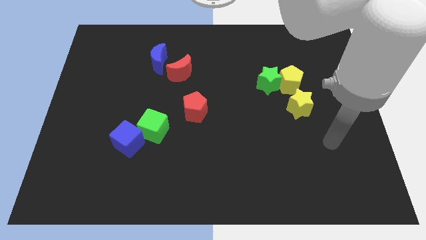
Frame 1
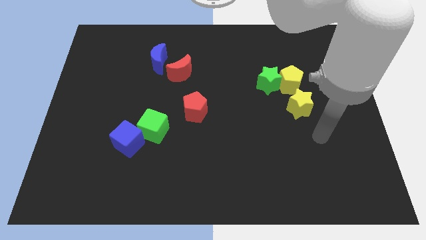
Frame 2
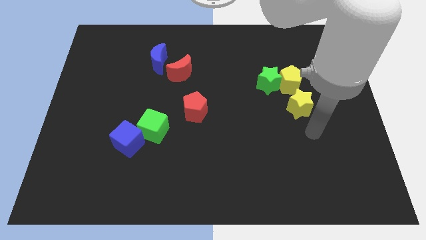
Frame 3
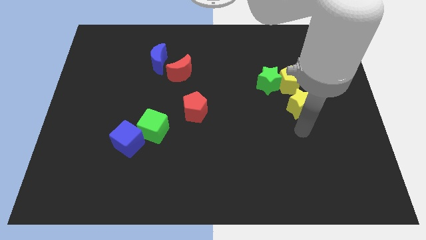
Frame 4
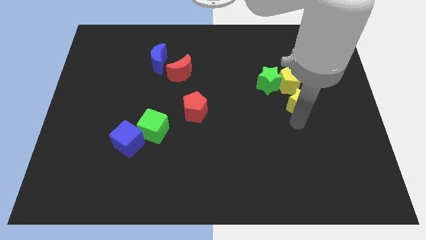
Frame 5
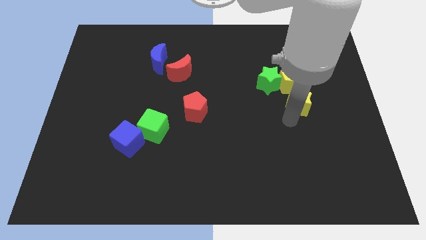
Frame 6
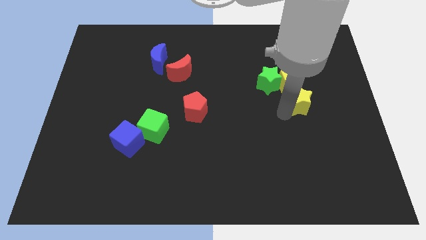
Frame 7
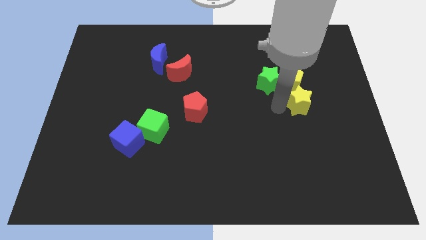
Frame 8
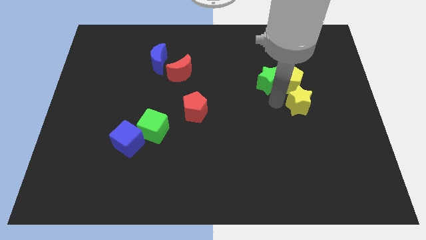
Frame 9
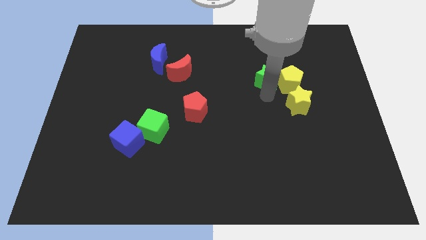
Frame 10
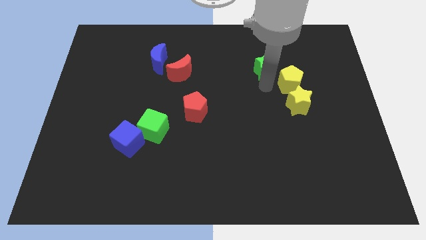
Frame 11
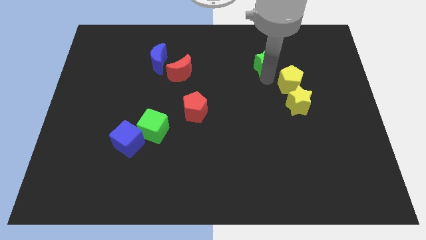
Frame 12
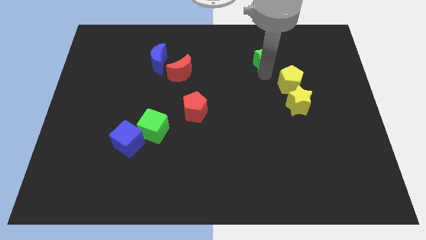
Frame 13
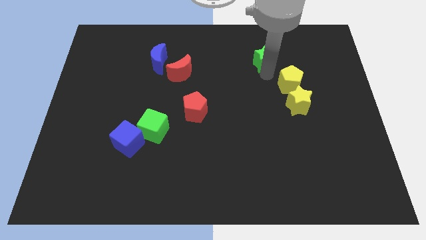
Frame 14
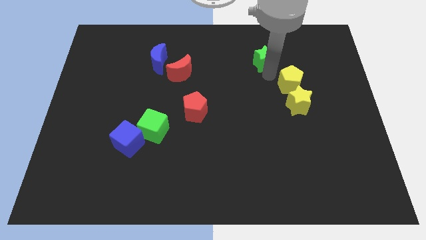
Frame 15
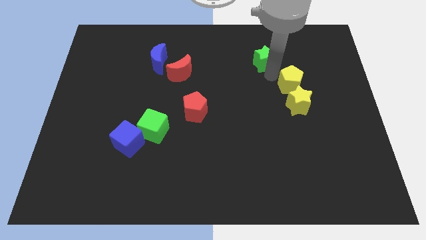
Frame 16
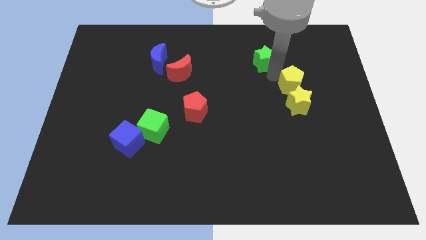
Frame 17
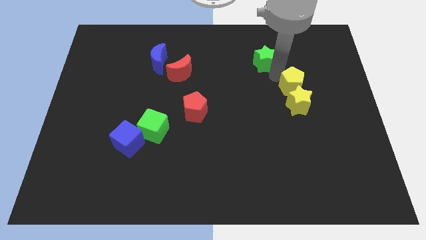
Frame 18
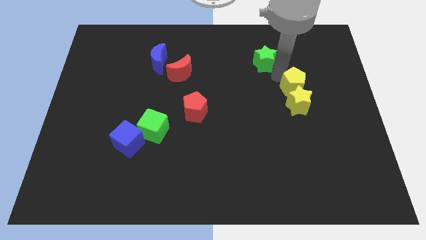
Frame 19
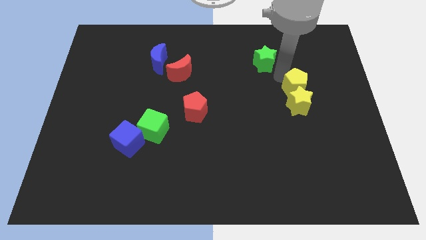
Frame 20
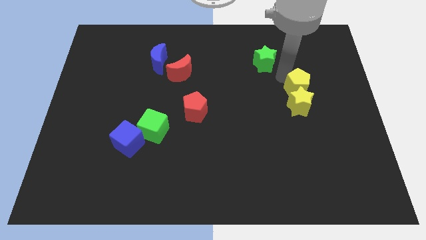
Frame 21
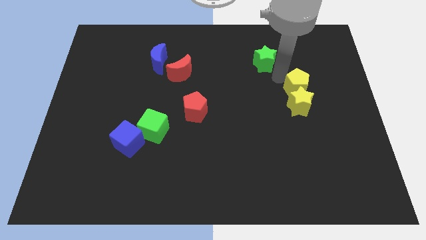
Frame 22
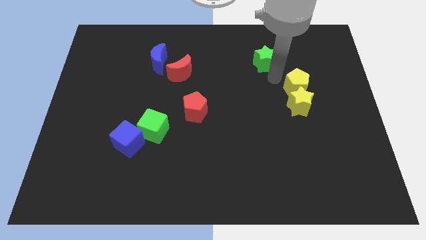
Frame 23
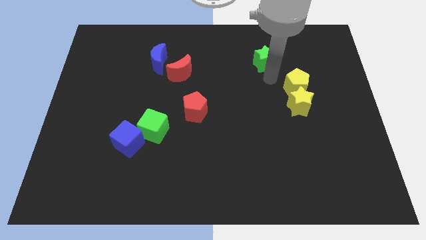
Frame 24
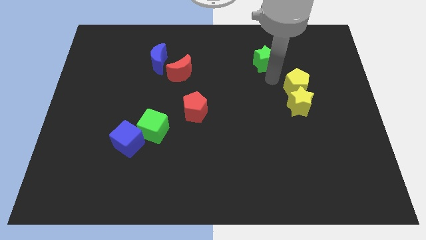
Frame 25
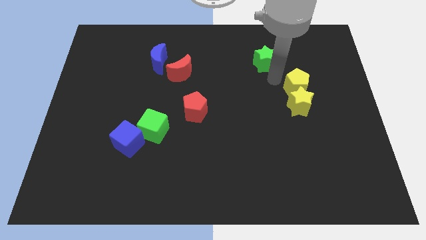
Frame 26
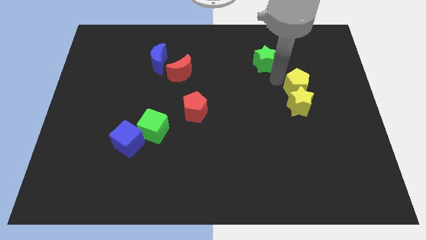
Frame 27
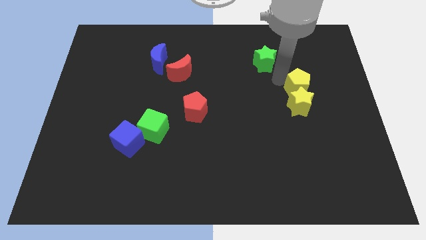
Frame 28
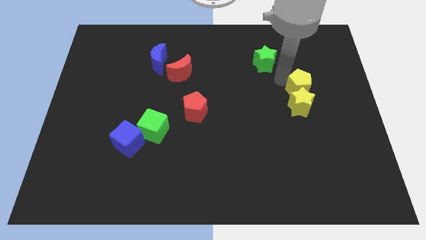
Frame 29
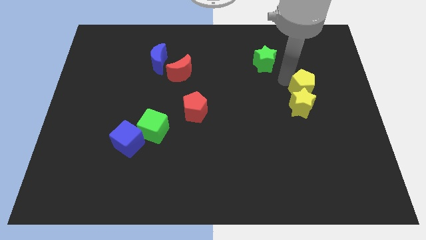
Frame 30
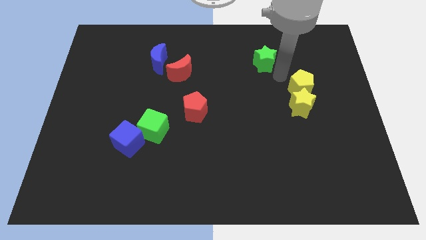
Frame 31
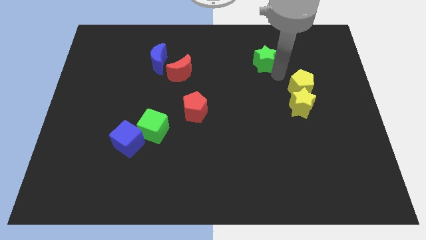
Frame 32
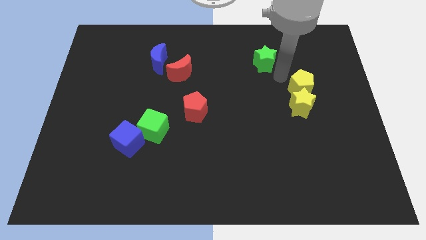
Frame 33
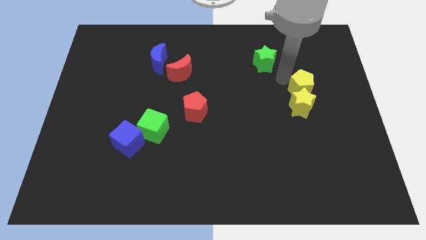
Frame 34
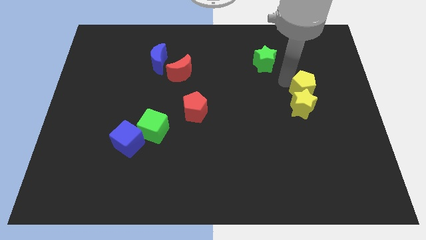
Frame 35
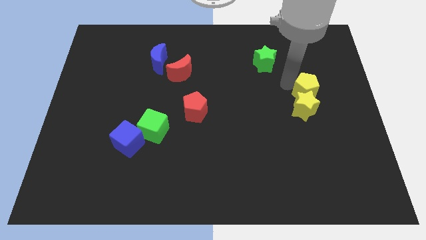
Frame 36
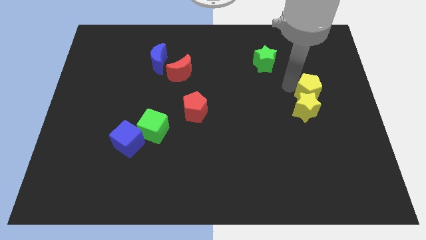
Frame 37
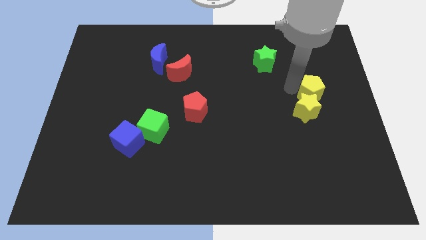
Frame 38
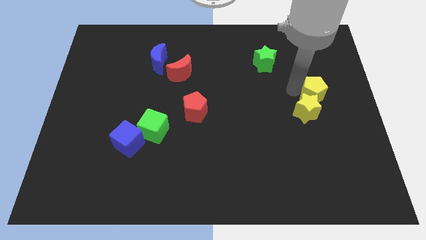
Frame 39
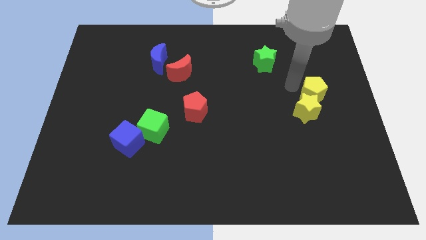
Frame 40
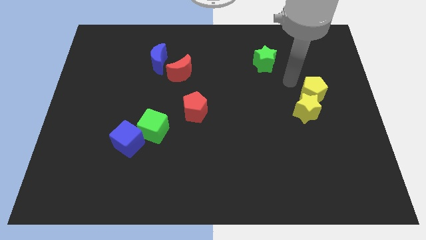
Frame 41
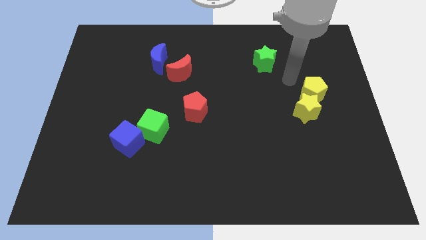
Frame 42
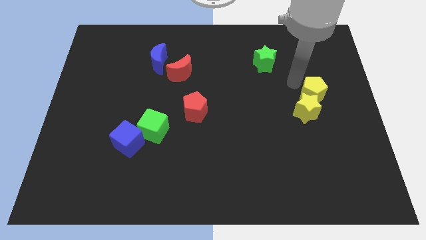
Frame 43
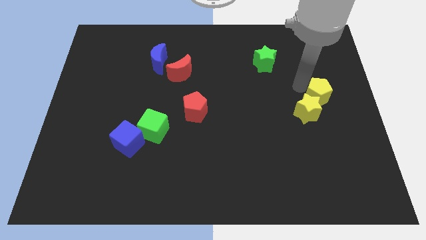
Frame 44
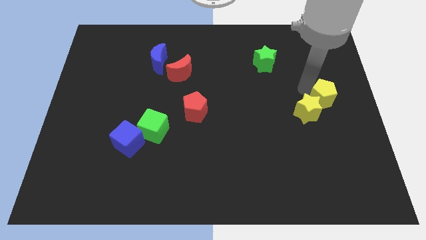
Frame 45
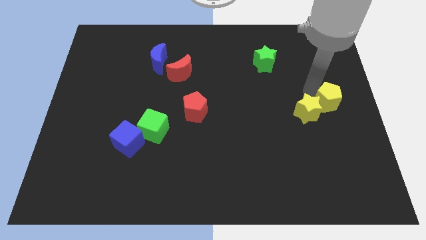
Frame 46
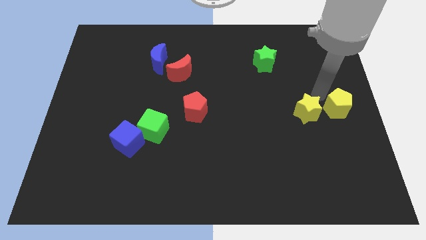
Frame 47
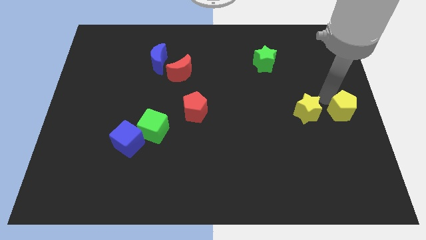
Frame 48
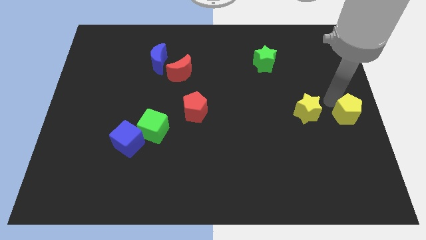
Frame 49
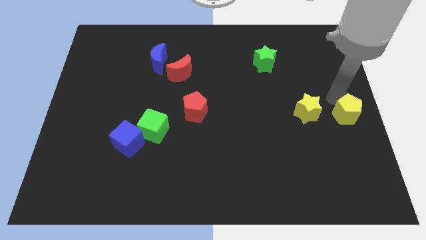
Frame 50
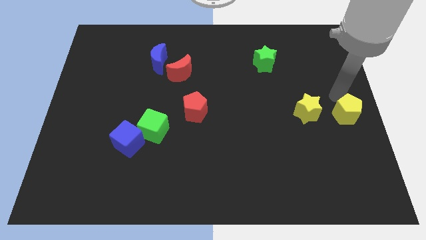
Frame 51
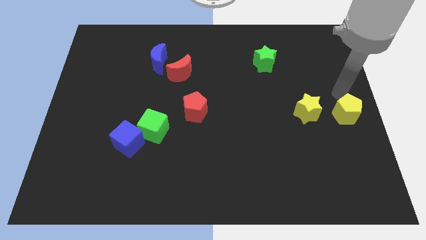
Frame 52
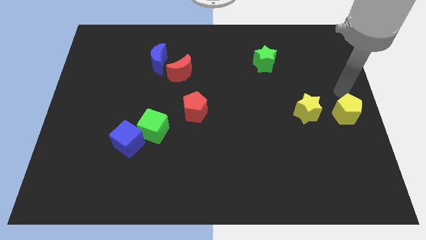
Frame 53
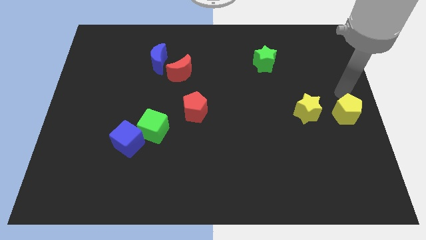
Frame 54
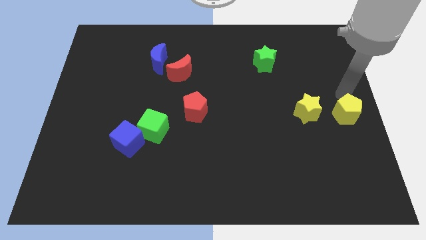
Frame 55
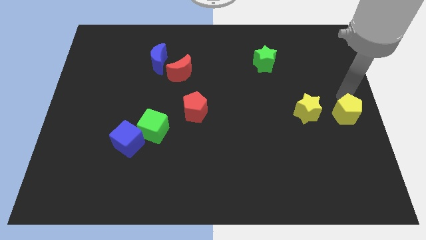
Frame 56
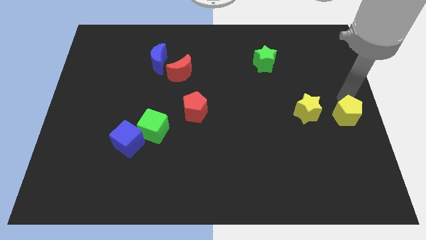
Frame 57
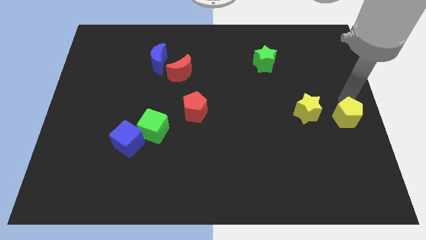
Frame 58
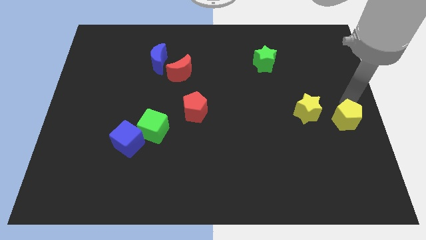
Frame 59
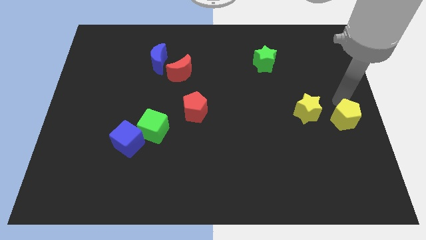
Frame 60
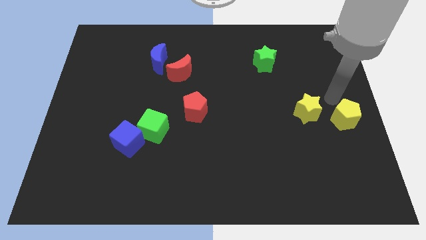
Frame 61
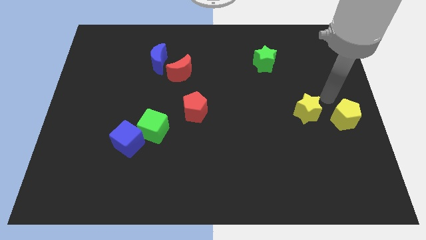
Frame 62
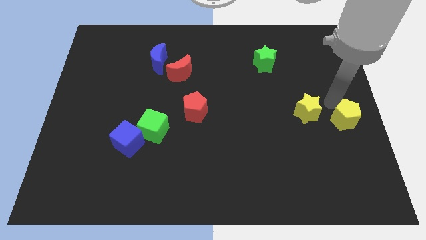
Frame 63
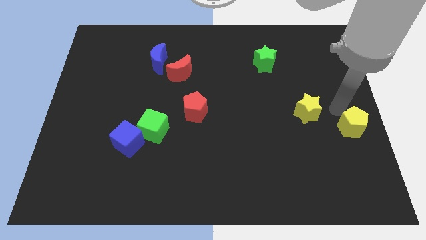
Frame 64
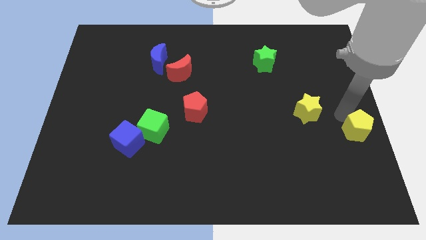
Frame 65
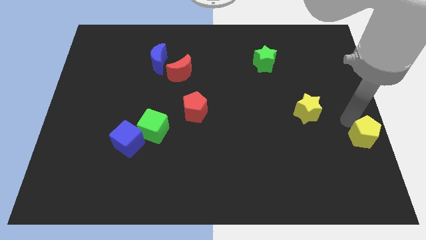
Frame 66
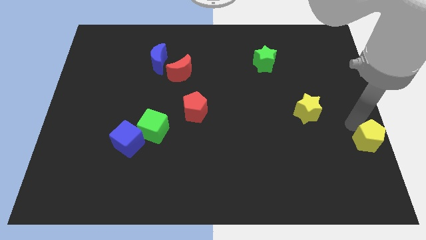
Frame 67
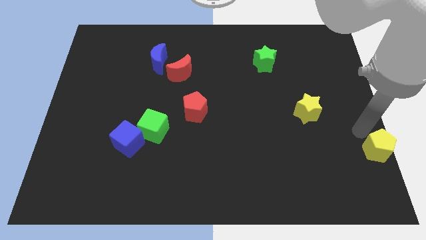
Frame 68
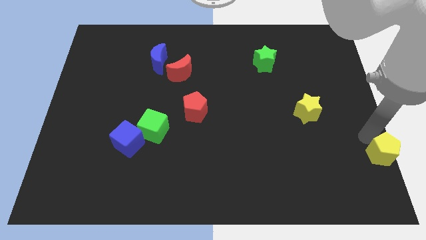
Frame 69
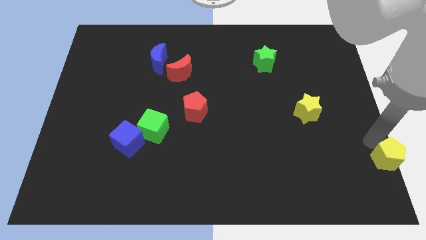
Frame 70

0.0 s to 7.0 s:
move the yellow pentagon to the lower right corner

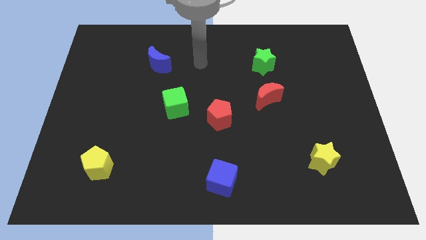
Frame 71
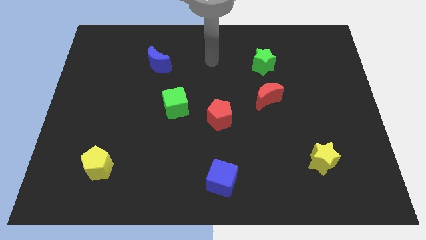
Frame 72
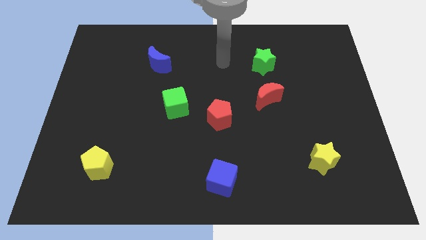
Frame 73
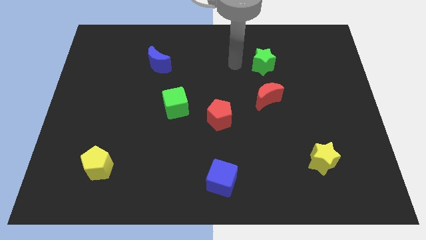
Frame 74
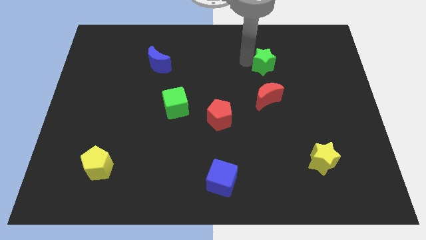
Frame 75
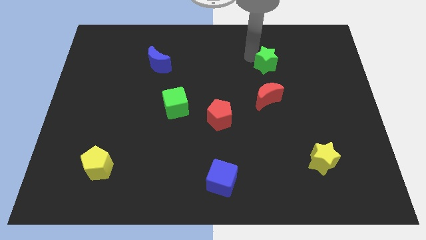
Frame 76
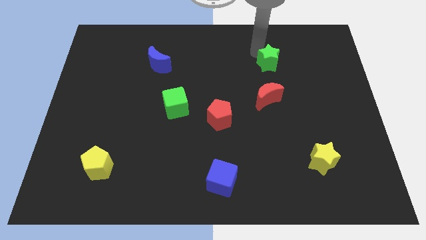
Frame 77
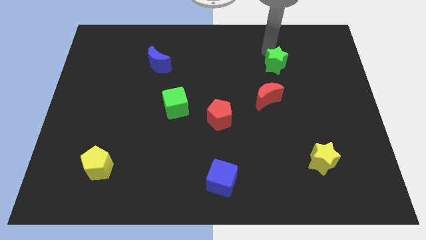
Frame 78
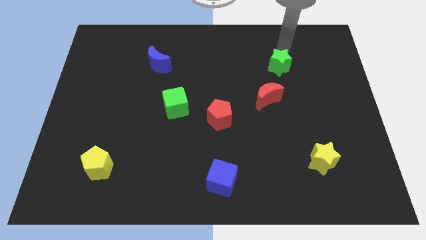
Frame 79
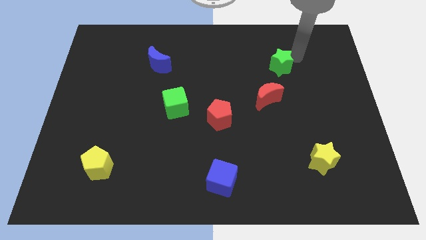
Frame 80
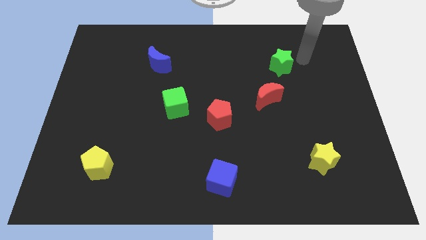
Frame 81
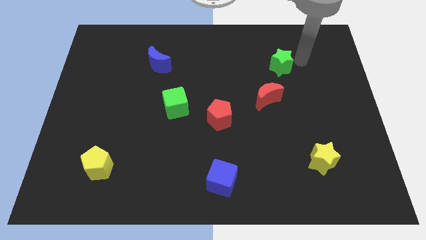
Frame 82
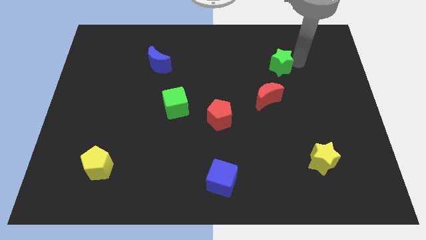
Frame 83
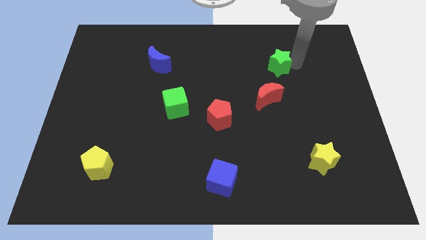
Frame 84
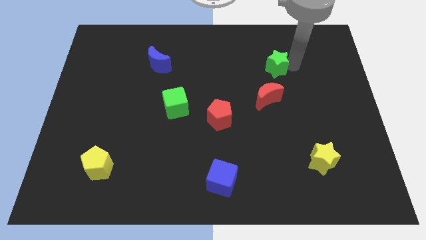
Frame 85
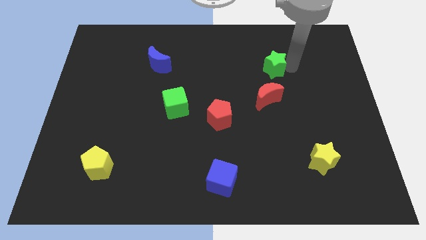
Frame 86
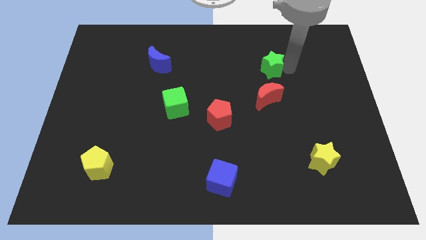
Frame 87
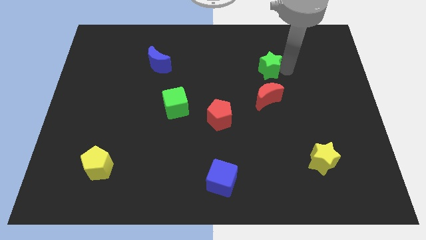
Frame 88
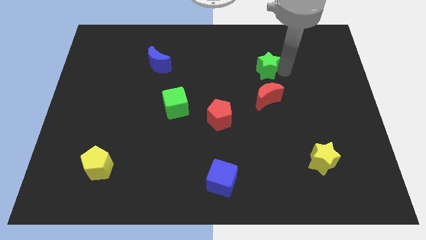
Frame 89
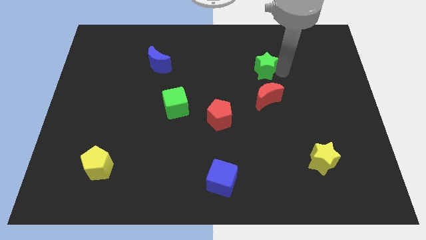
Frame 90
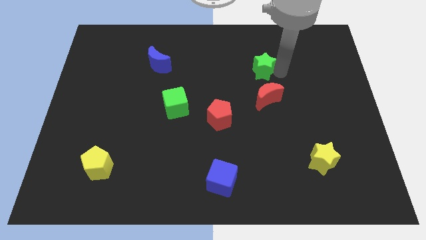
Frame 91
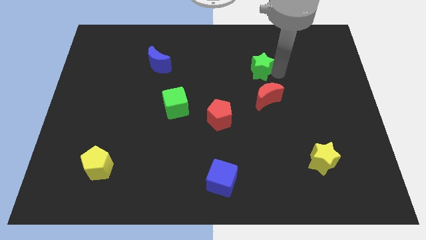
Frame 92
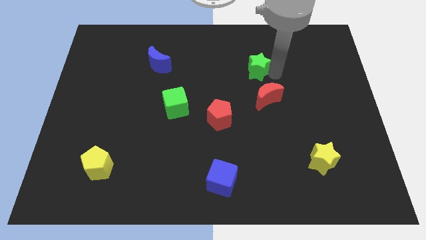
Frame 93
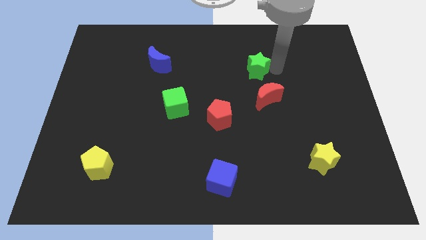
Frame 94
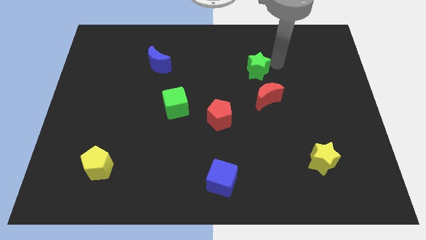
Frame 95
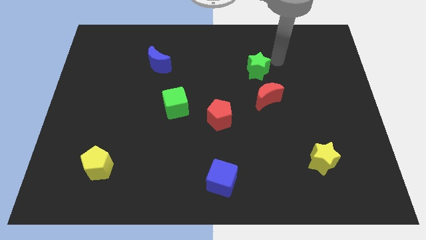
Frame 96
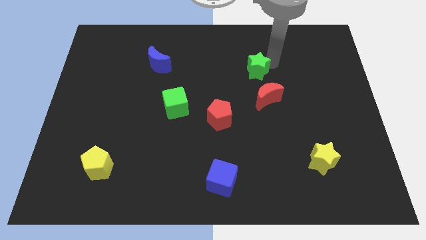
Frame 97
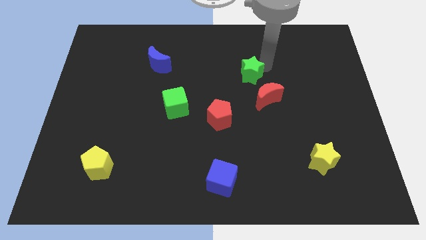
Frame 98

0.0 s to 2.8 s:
put the green star to the center
